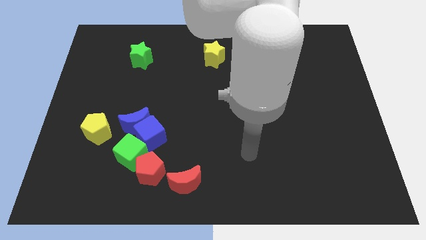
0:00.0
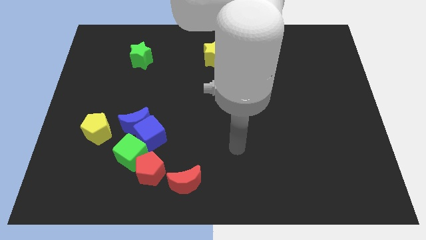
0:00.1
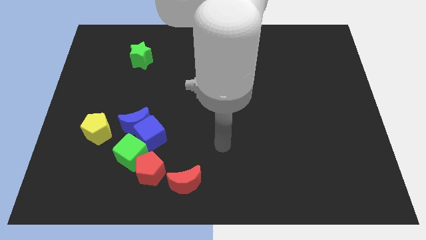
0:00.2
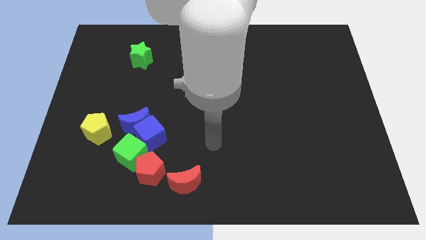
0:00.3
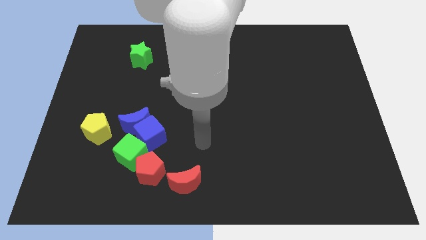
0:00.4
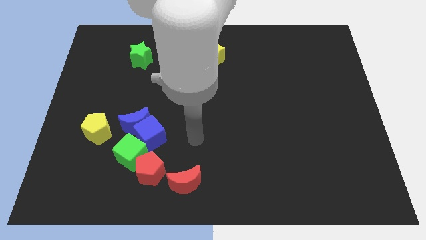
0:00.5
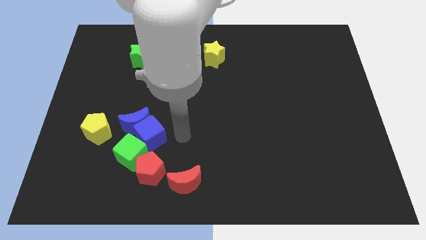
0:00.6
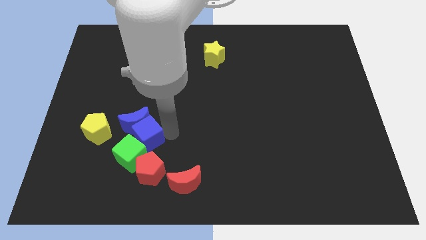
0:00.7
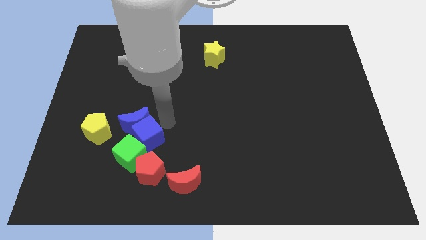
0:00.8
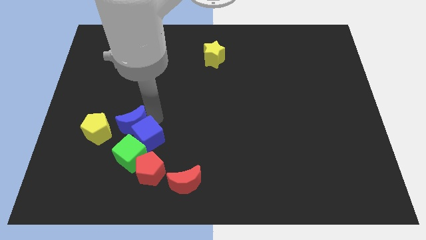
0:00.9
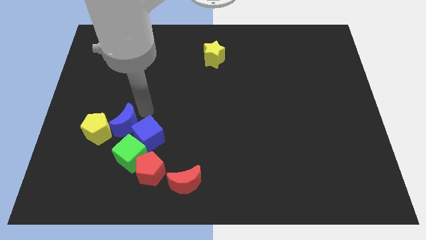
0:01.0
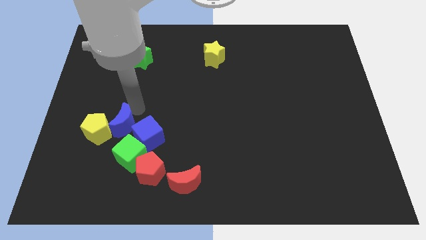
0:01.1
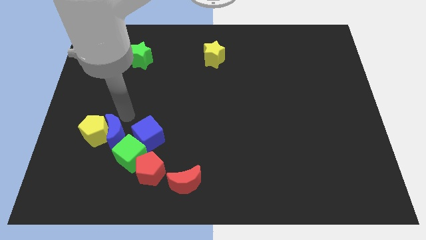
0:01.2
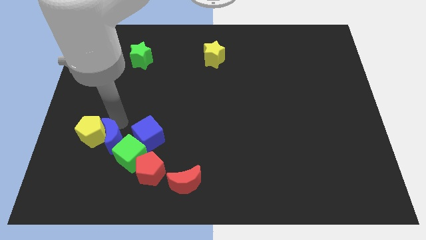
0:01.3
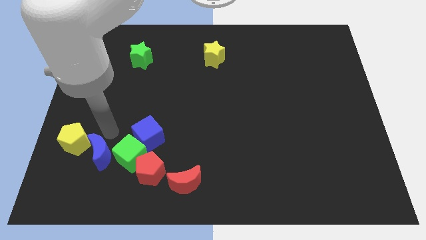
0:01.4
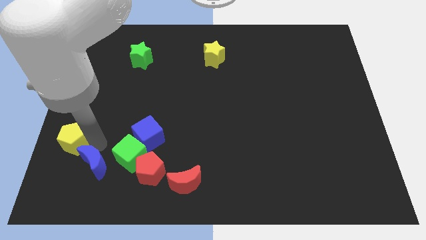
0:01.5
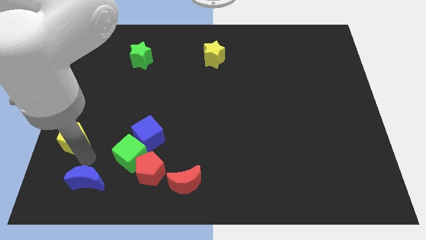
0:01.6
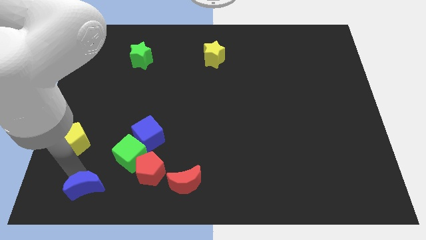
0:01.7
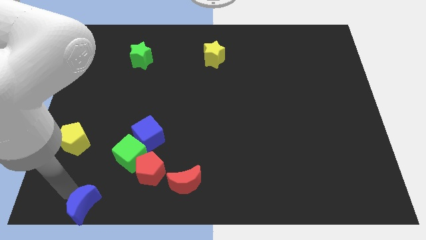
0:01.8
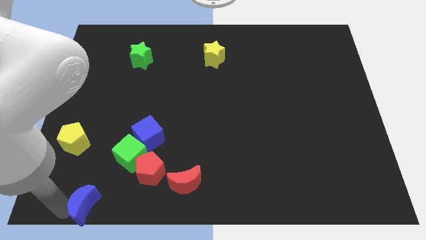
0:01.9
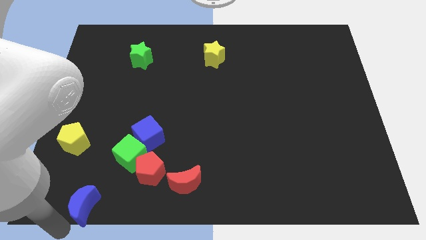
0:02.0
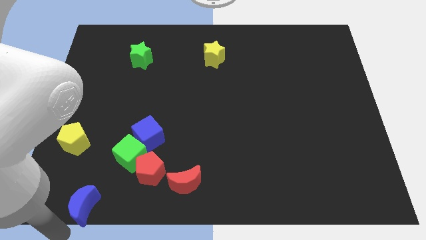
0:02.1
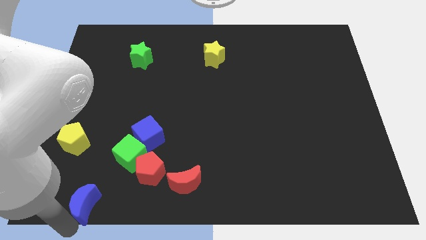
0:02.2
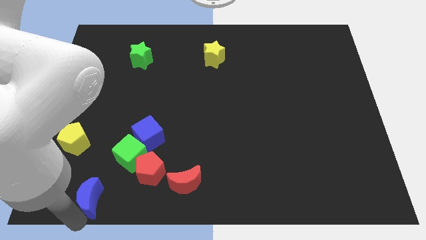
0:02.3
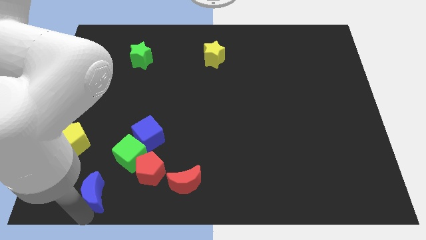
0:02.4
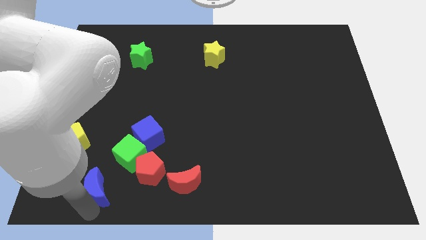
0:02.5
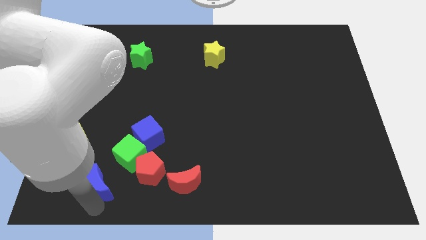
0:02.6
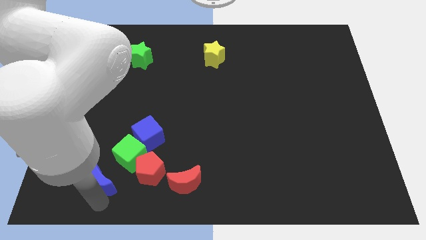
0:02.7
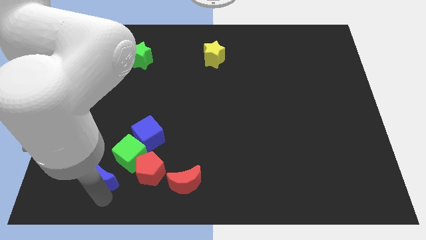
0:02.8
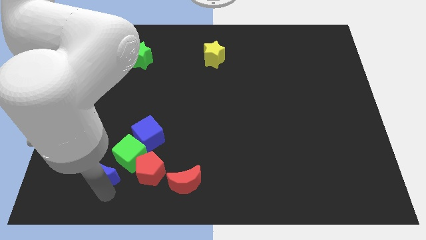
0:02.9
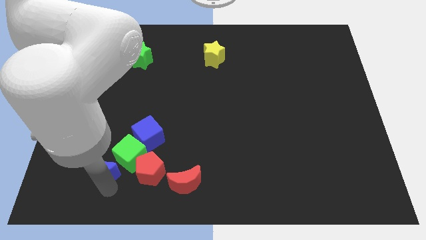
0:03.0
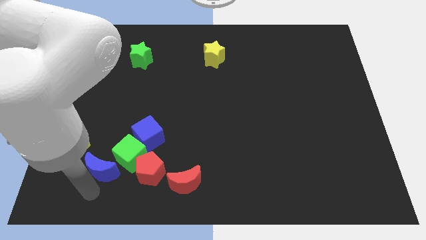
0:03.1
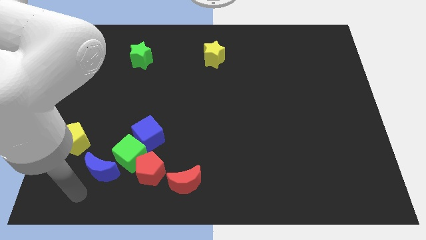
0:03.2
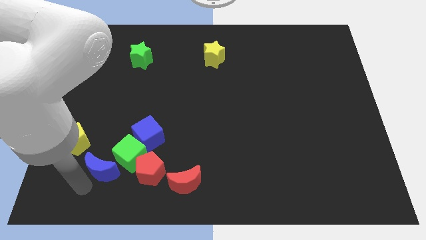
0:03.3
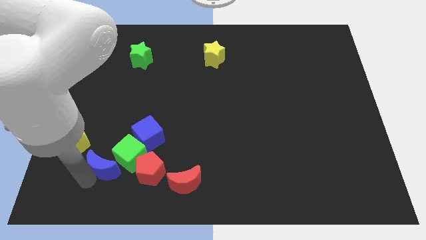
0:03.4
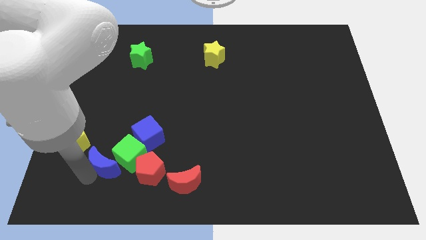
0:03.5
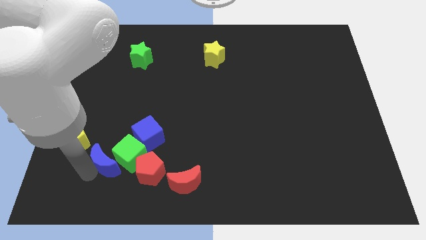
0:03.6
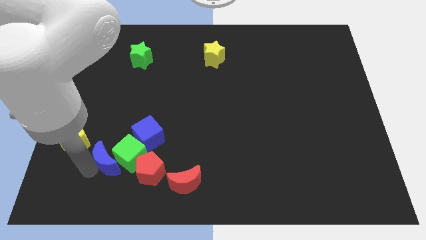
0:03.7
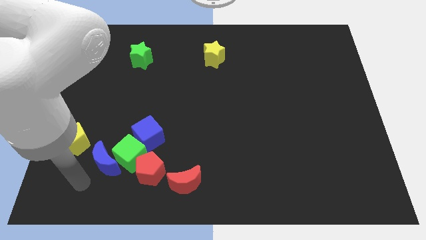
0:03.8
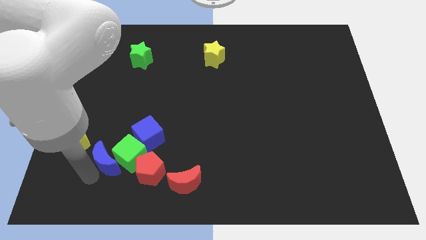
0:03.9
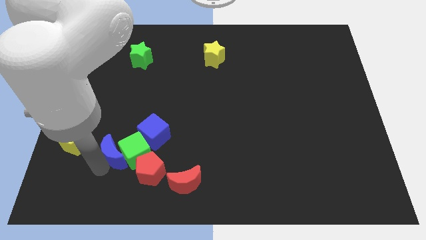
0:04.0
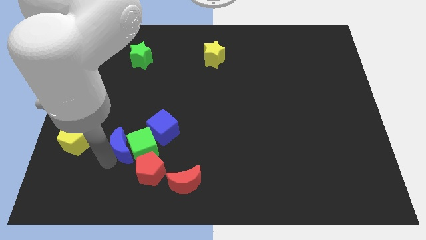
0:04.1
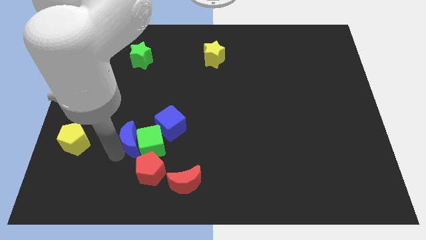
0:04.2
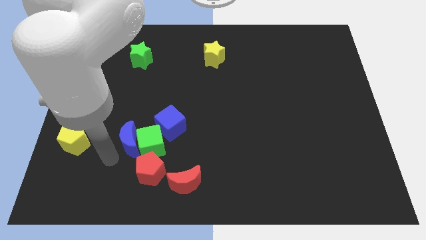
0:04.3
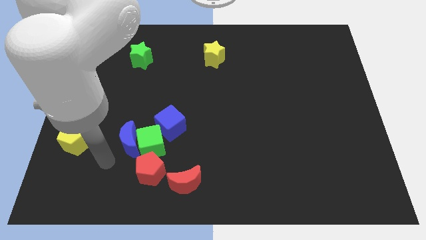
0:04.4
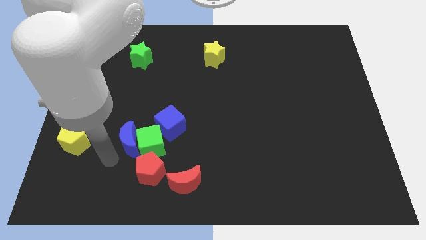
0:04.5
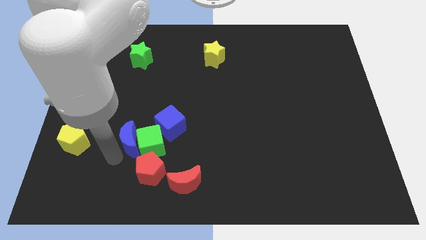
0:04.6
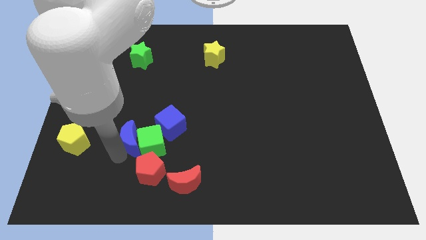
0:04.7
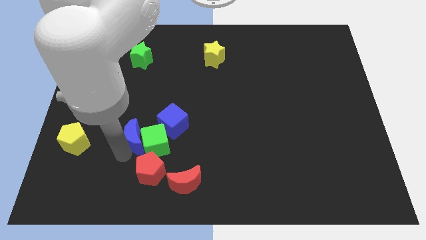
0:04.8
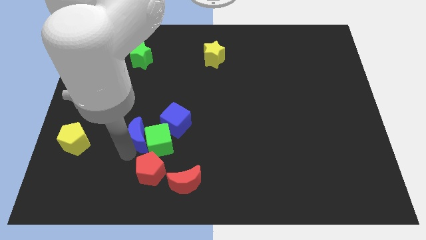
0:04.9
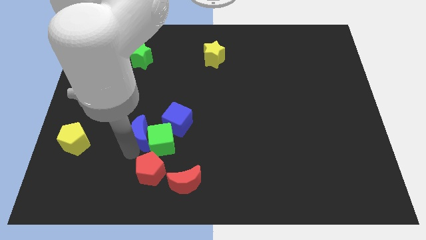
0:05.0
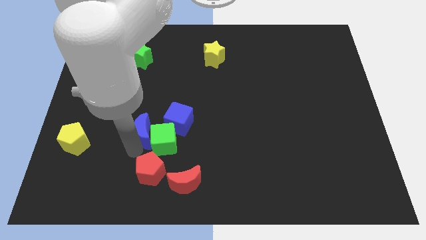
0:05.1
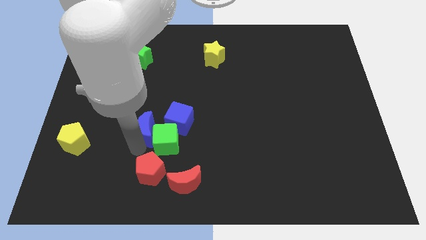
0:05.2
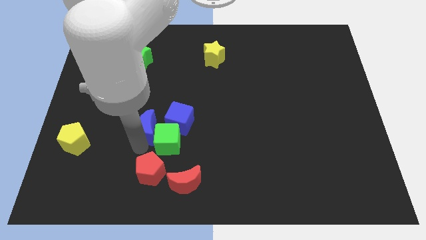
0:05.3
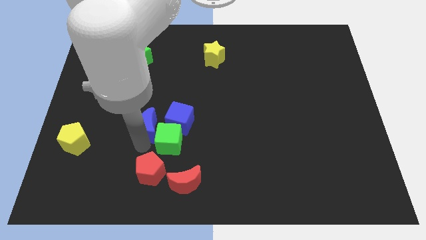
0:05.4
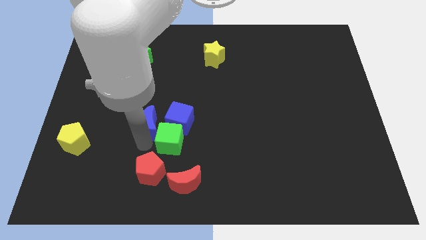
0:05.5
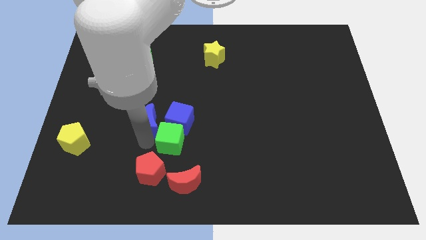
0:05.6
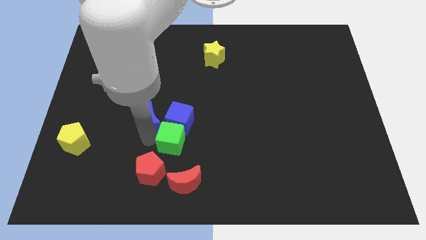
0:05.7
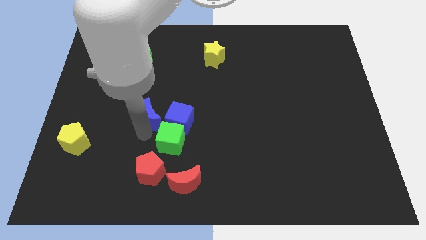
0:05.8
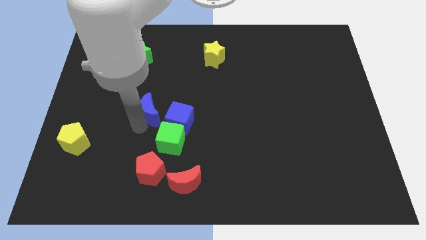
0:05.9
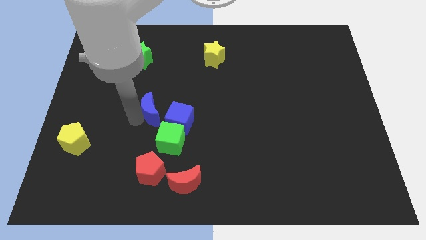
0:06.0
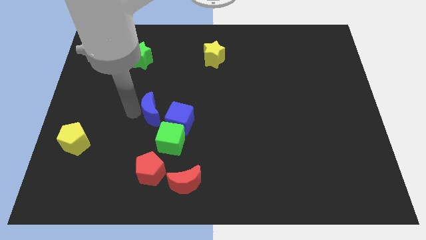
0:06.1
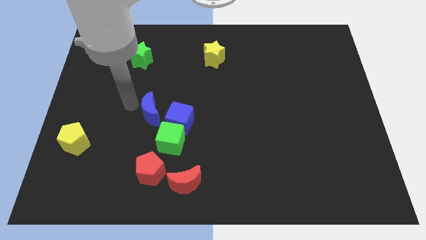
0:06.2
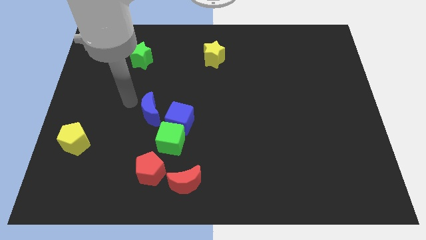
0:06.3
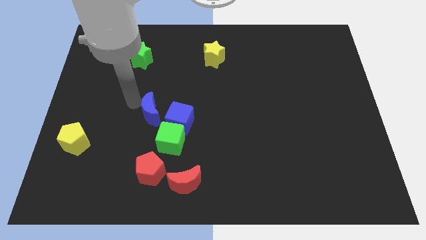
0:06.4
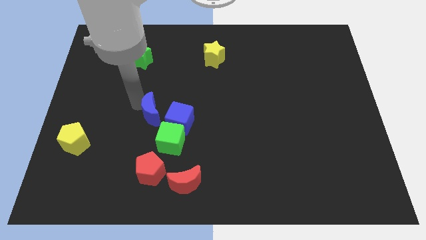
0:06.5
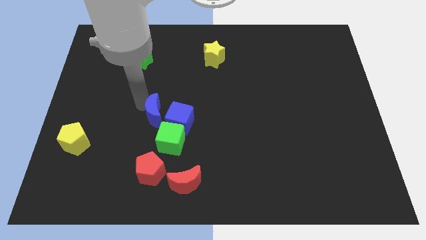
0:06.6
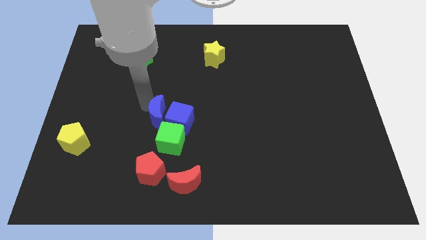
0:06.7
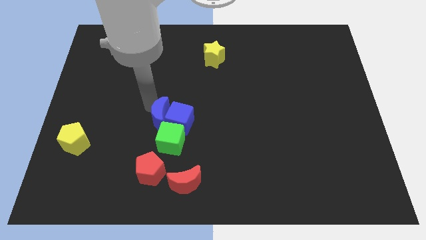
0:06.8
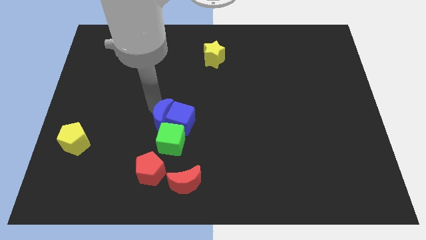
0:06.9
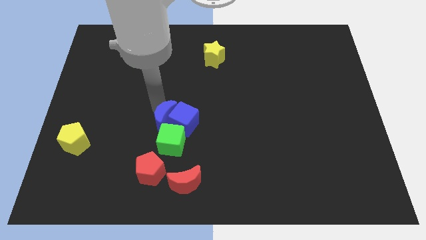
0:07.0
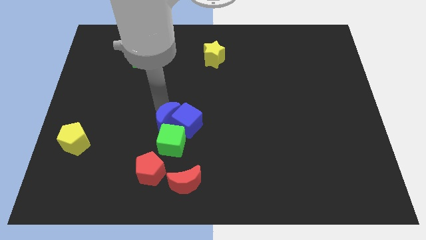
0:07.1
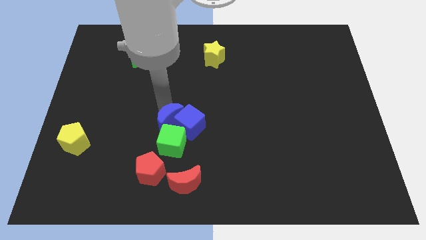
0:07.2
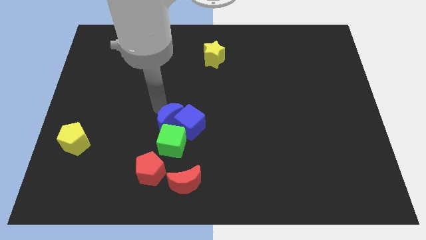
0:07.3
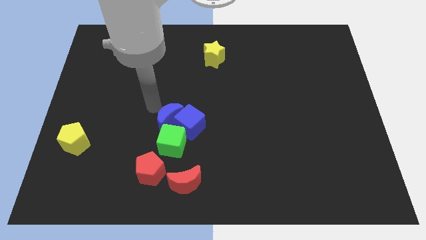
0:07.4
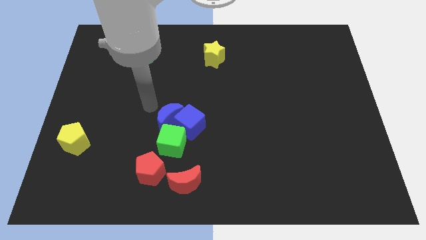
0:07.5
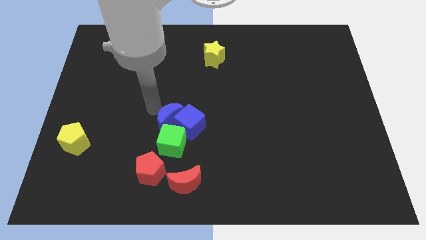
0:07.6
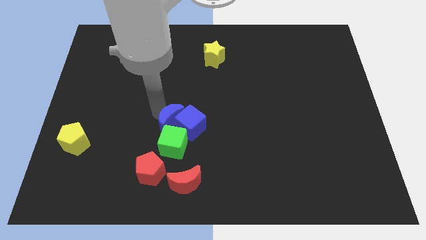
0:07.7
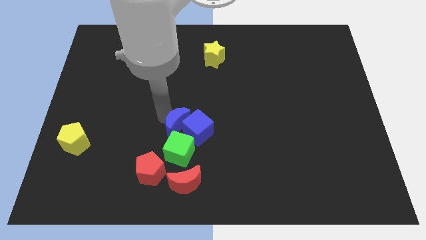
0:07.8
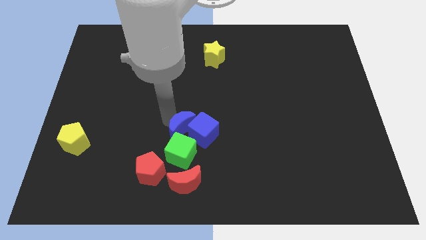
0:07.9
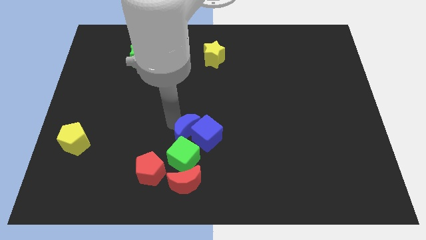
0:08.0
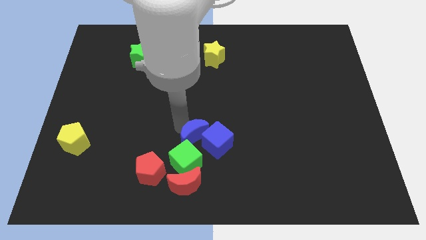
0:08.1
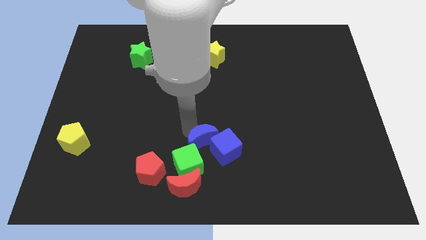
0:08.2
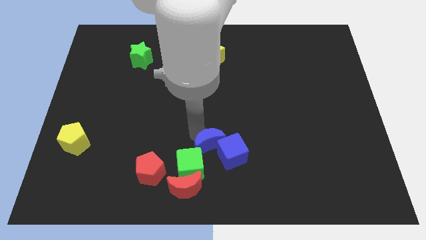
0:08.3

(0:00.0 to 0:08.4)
move the blue moon to the top right of the red moon
